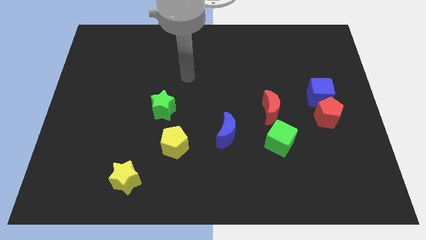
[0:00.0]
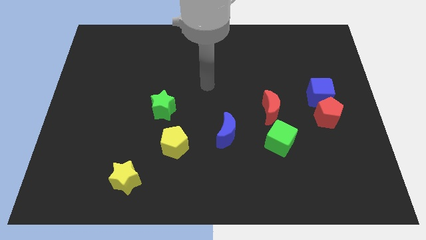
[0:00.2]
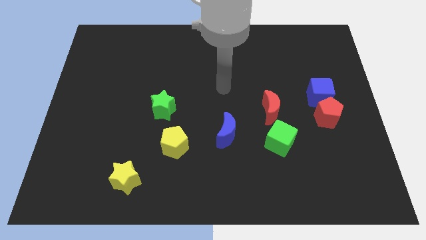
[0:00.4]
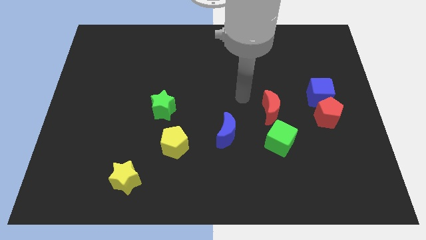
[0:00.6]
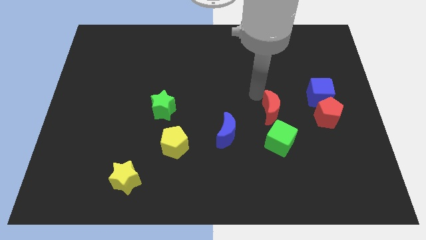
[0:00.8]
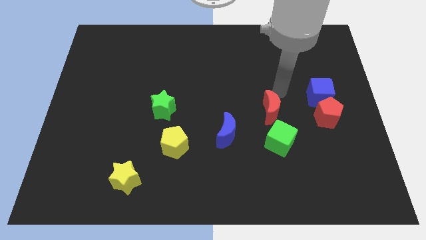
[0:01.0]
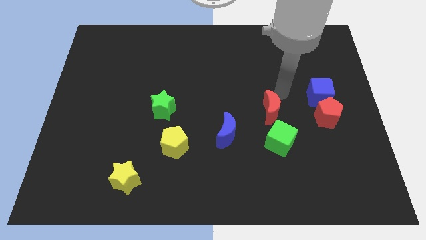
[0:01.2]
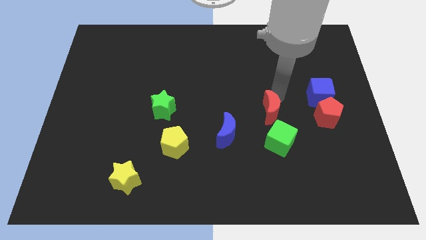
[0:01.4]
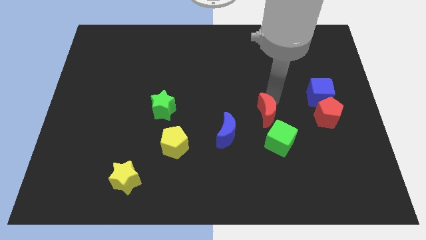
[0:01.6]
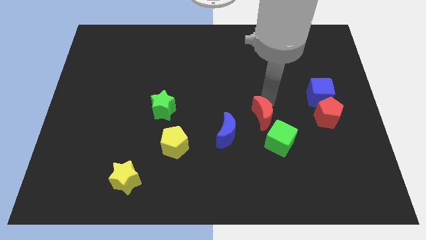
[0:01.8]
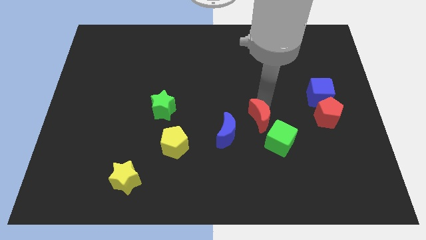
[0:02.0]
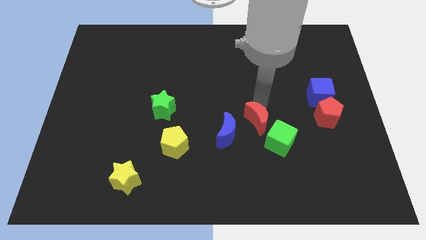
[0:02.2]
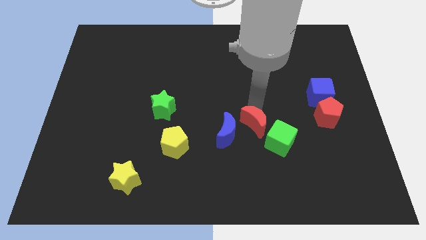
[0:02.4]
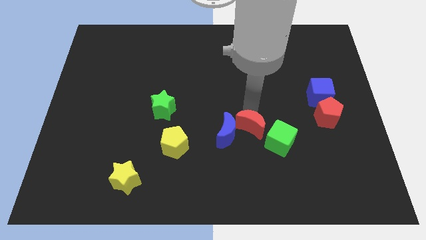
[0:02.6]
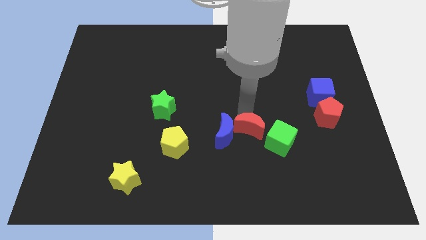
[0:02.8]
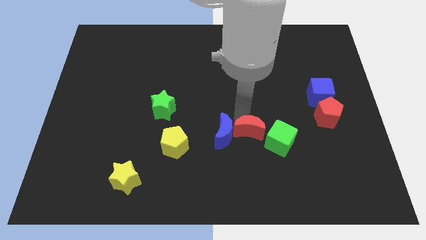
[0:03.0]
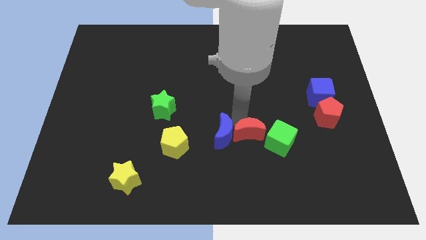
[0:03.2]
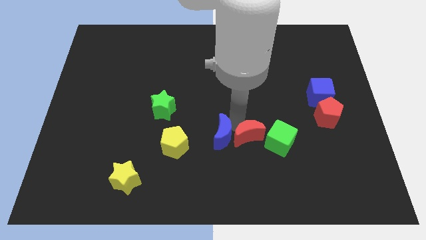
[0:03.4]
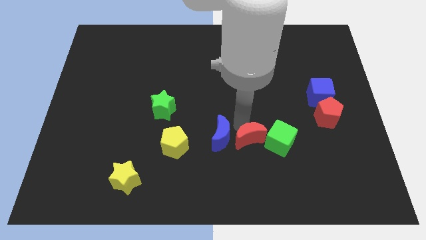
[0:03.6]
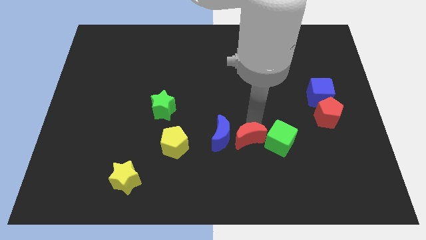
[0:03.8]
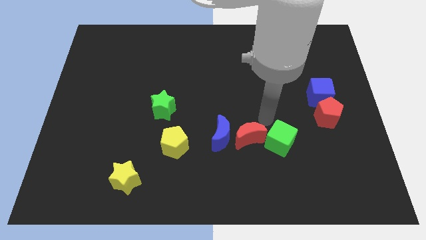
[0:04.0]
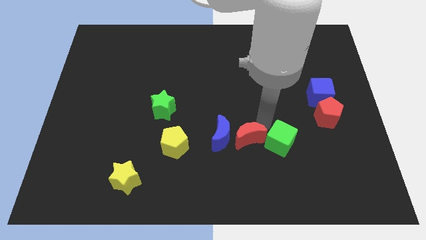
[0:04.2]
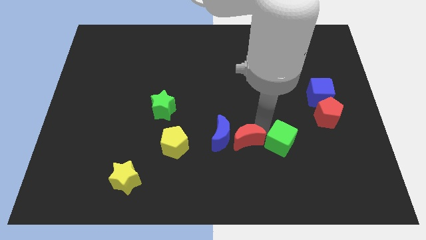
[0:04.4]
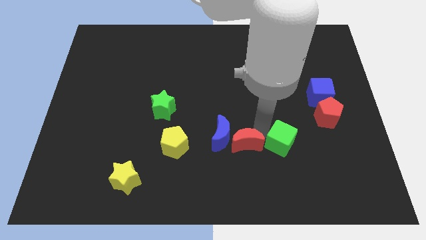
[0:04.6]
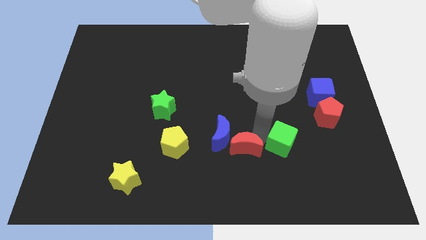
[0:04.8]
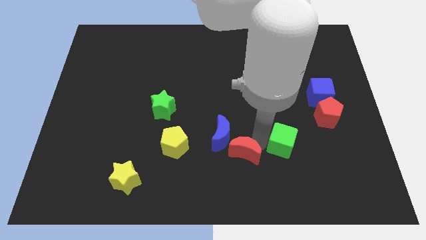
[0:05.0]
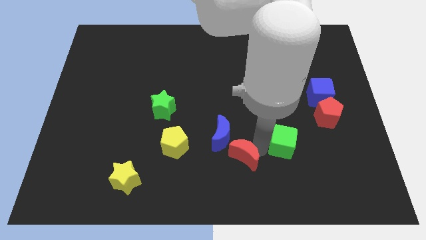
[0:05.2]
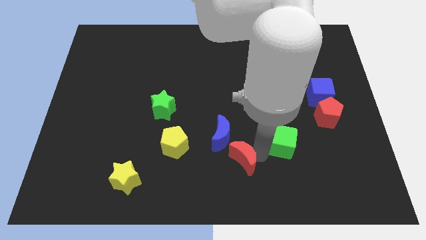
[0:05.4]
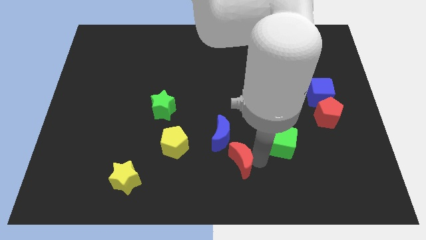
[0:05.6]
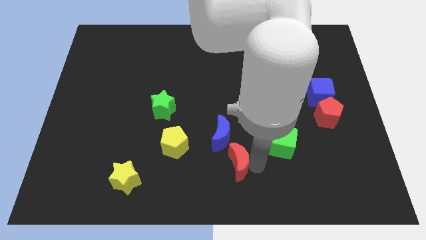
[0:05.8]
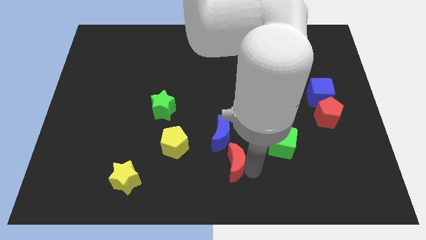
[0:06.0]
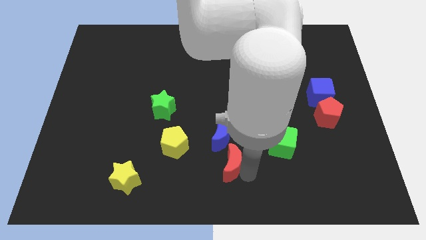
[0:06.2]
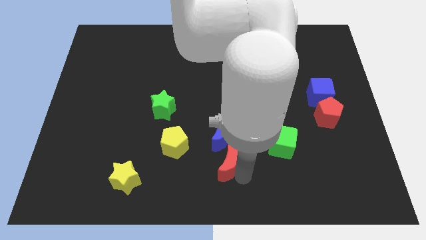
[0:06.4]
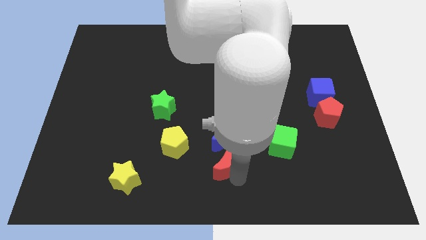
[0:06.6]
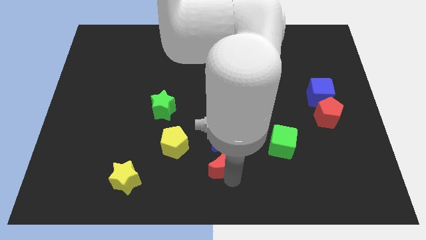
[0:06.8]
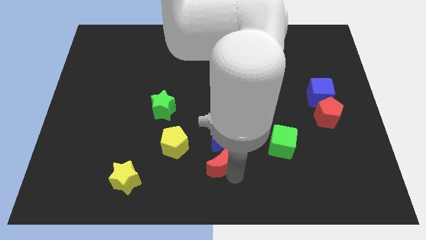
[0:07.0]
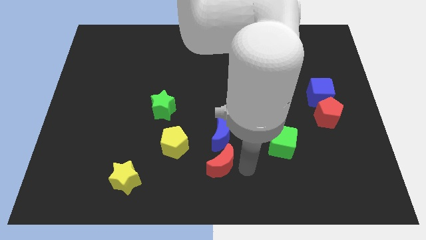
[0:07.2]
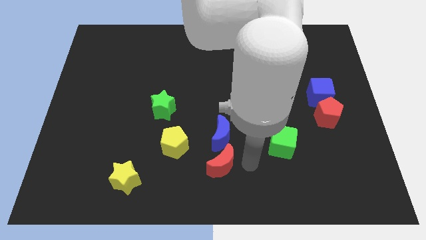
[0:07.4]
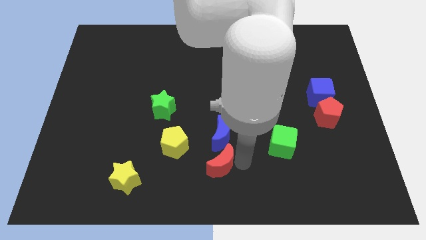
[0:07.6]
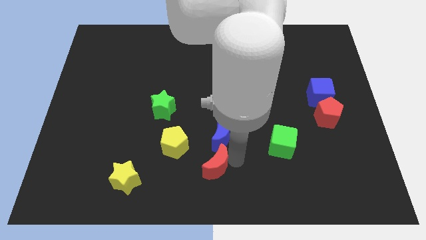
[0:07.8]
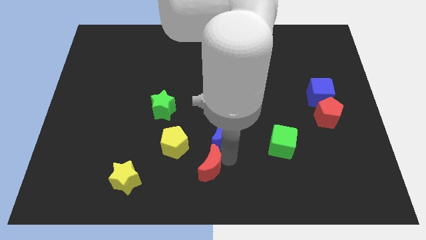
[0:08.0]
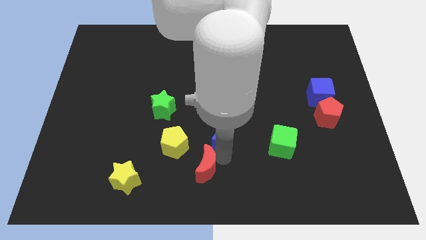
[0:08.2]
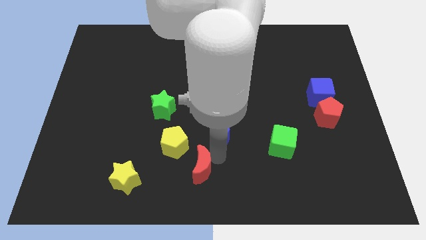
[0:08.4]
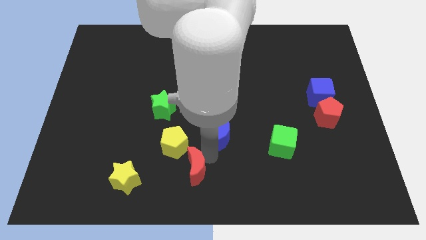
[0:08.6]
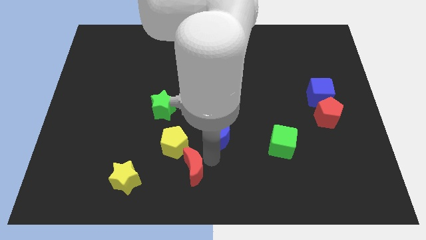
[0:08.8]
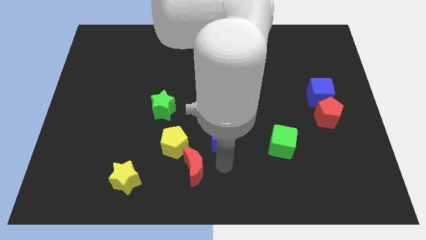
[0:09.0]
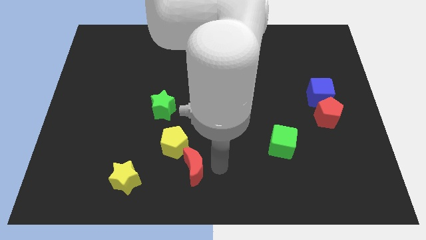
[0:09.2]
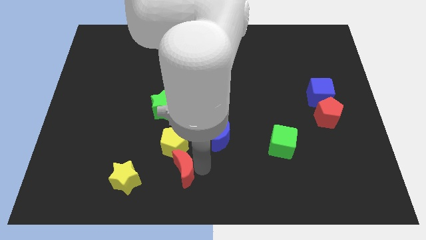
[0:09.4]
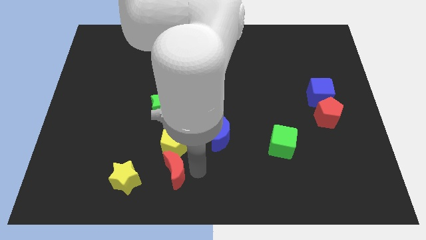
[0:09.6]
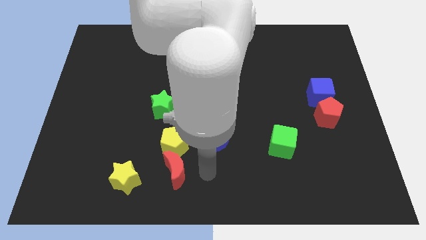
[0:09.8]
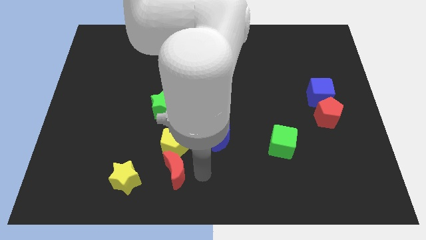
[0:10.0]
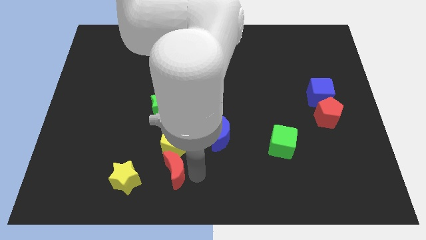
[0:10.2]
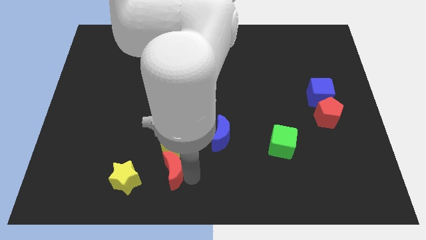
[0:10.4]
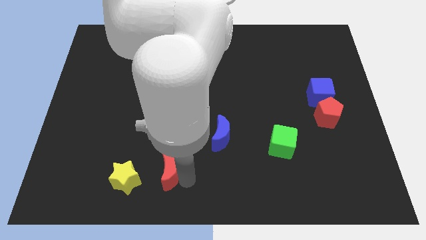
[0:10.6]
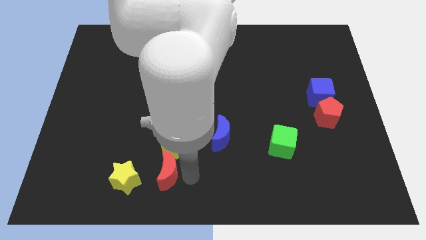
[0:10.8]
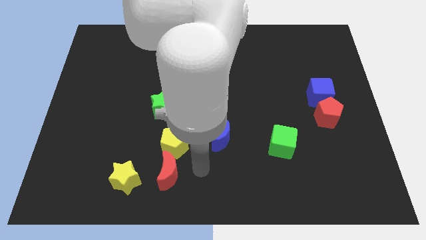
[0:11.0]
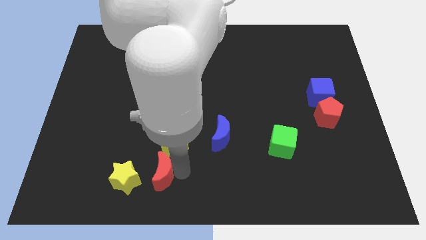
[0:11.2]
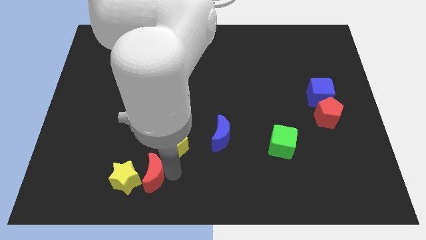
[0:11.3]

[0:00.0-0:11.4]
move the red moon towards the yellow star

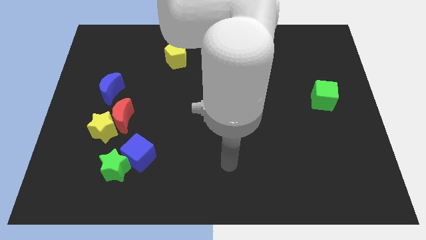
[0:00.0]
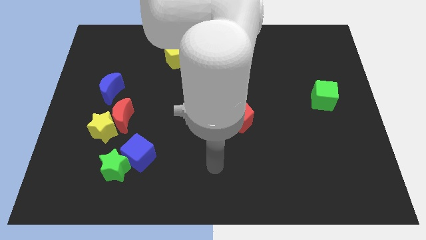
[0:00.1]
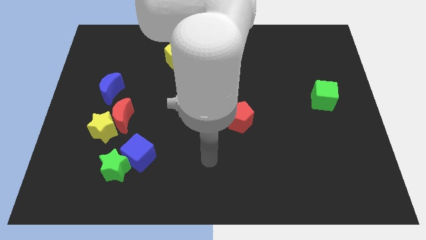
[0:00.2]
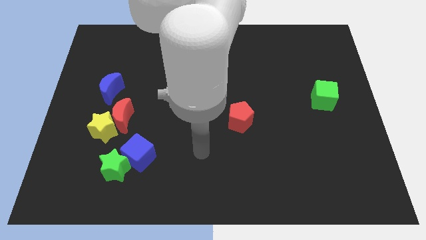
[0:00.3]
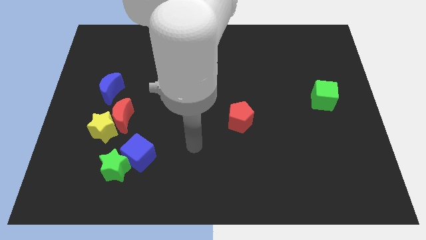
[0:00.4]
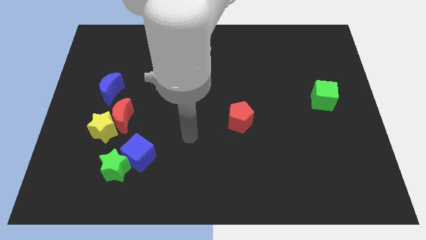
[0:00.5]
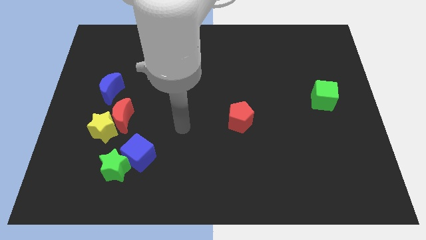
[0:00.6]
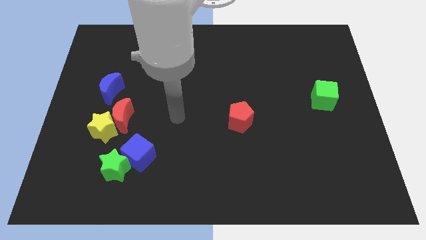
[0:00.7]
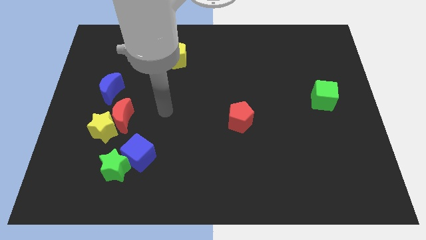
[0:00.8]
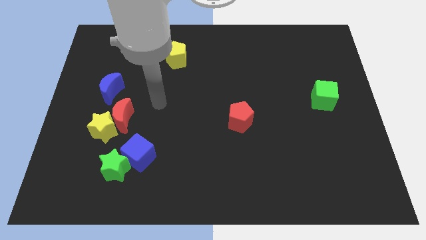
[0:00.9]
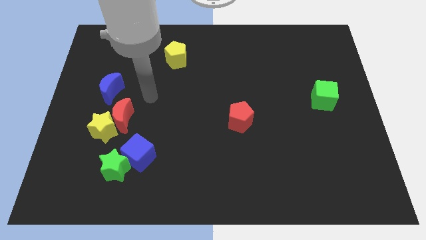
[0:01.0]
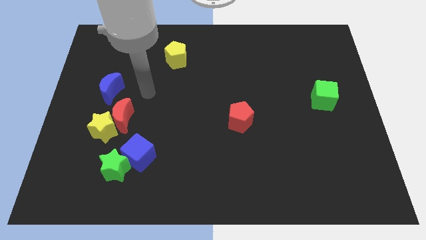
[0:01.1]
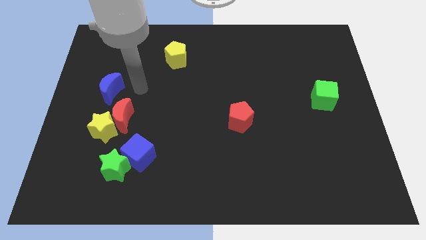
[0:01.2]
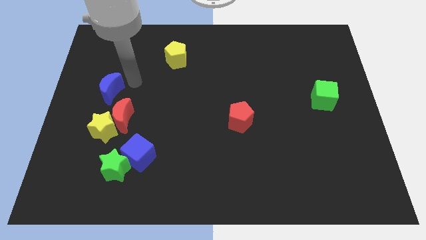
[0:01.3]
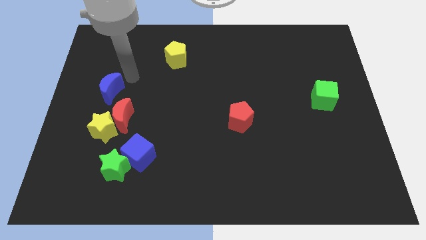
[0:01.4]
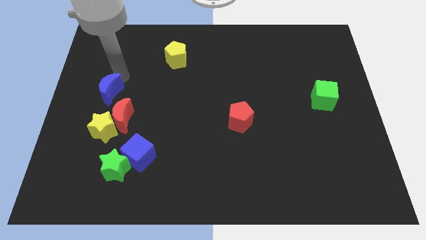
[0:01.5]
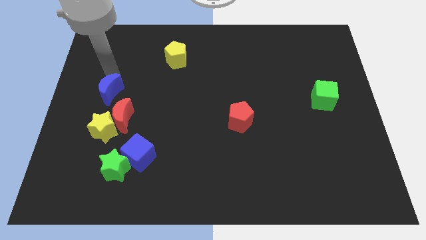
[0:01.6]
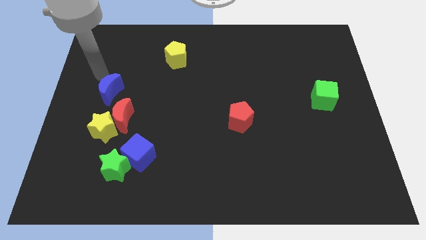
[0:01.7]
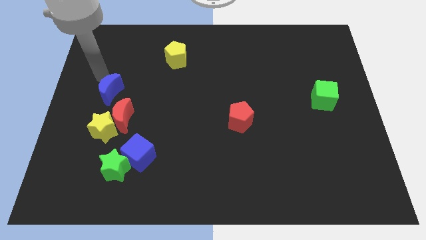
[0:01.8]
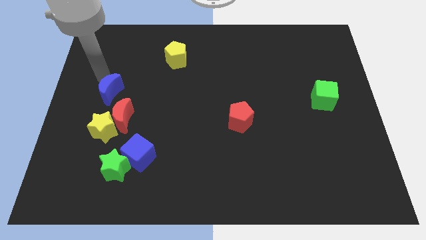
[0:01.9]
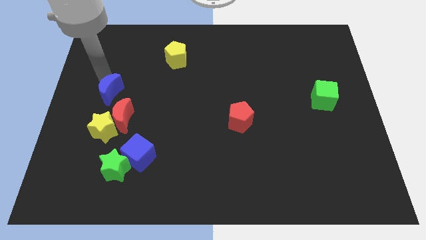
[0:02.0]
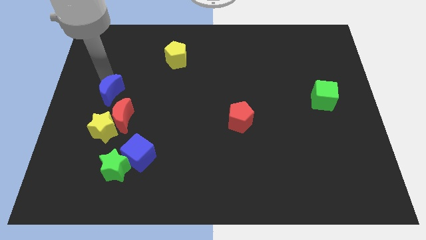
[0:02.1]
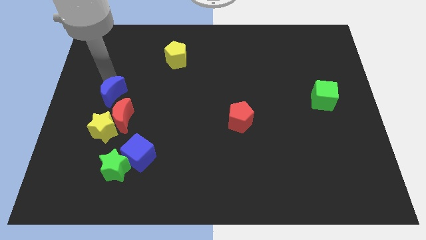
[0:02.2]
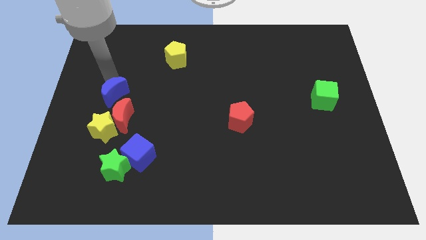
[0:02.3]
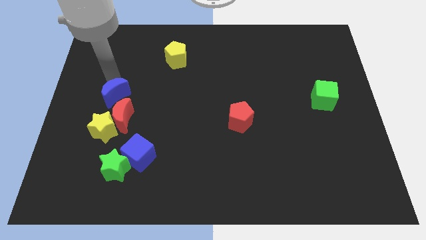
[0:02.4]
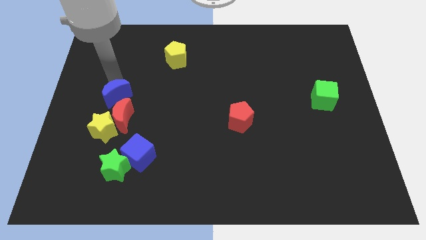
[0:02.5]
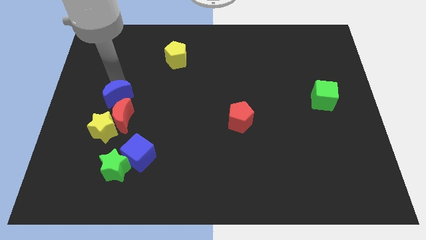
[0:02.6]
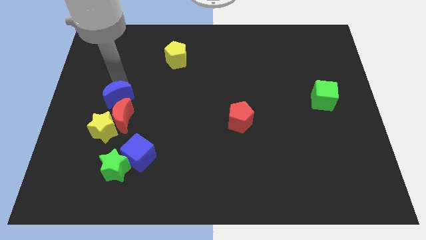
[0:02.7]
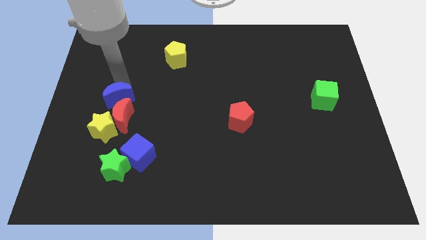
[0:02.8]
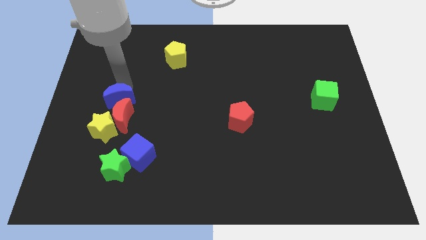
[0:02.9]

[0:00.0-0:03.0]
slide the blue moon towards the red moon
